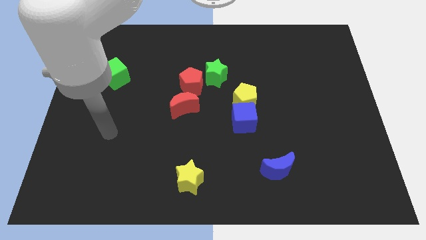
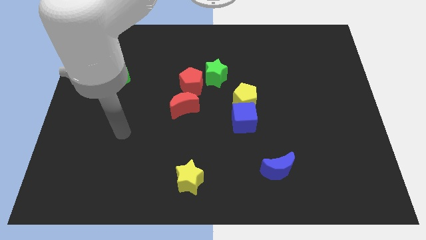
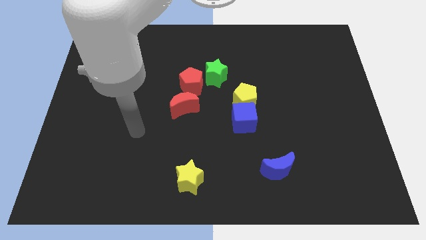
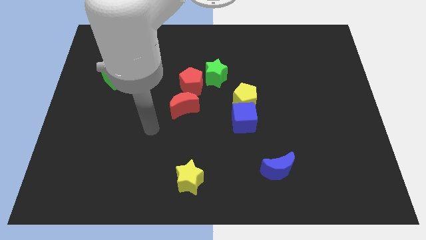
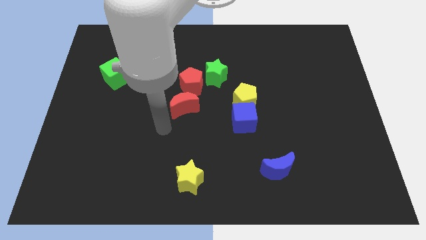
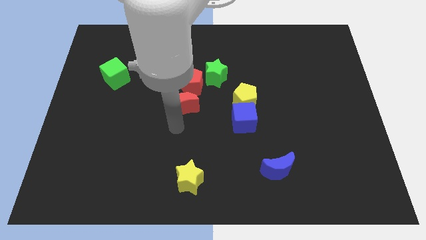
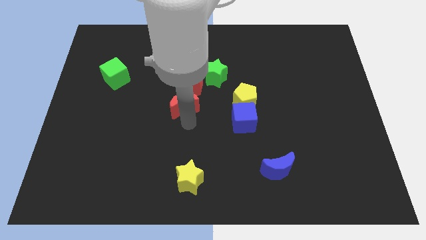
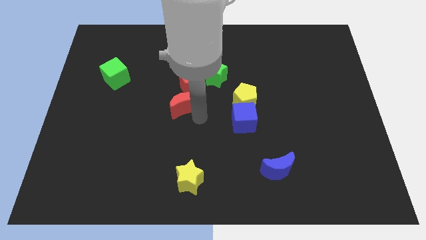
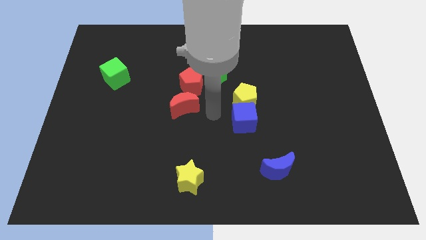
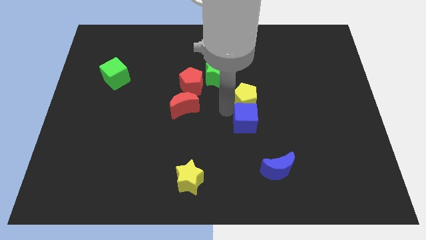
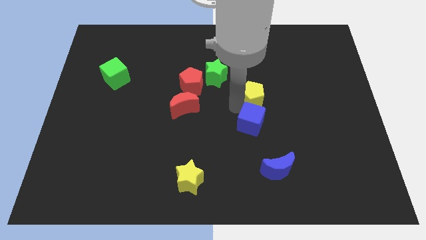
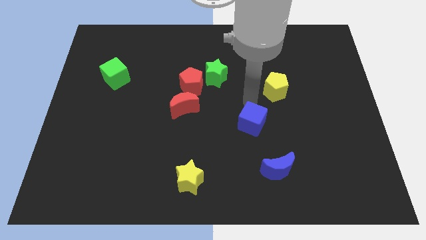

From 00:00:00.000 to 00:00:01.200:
move the blue cube away from the yellow pentagon

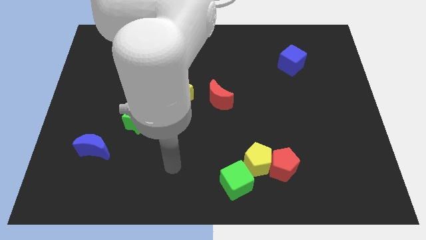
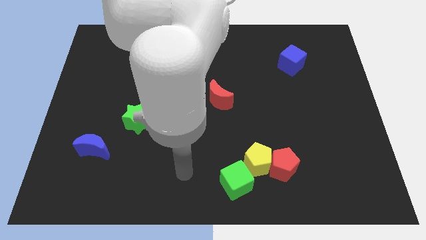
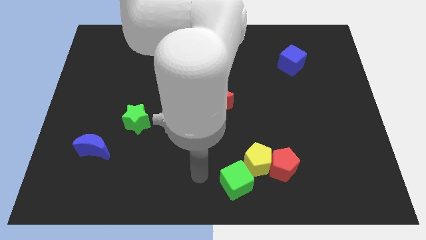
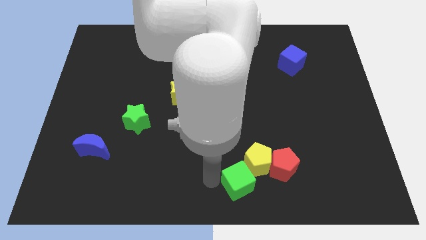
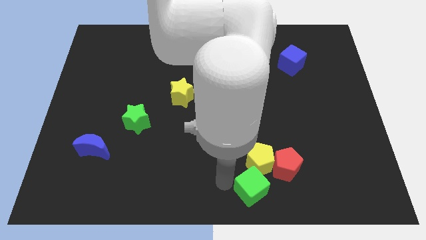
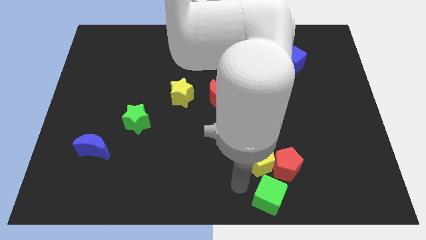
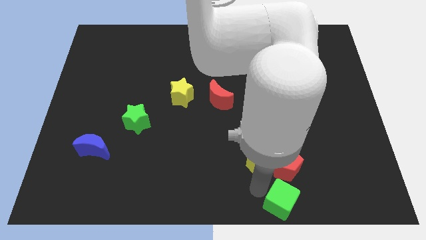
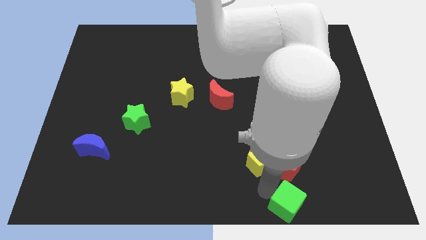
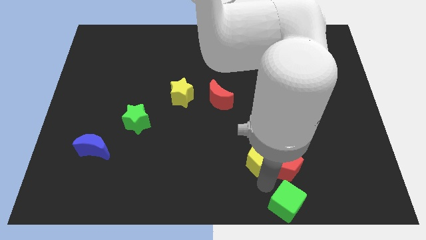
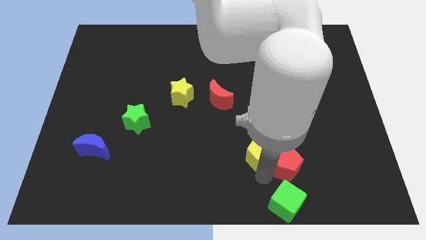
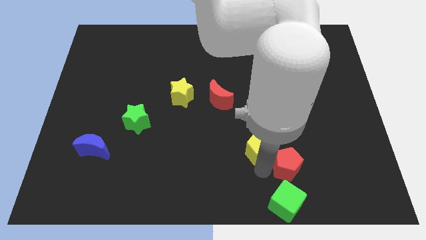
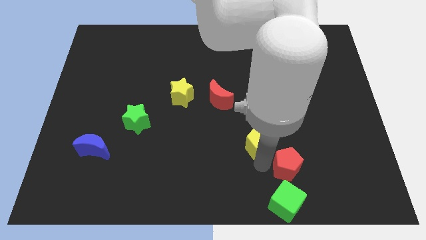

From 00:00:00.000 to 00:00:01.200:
separate the yellow pentagon from the red pentagon and green cube

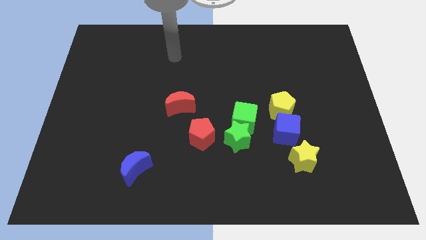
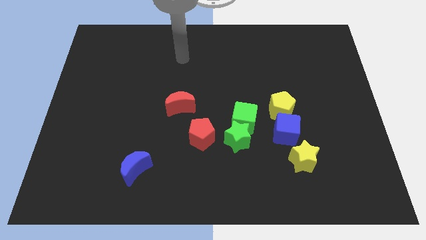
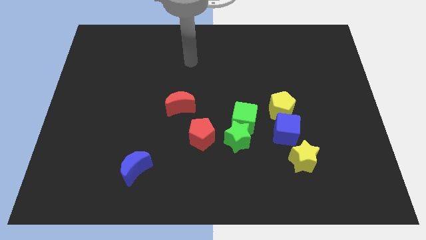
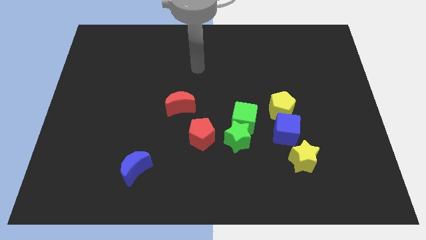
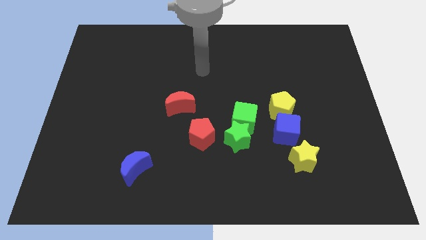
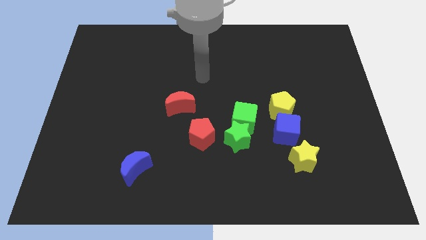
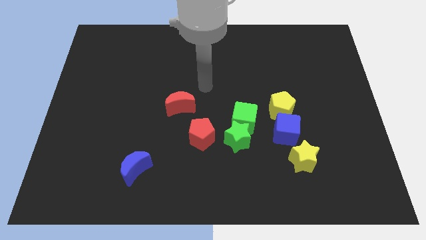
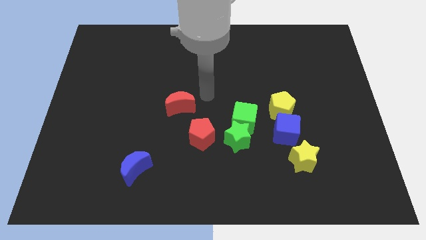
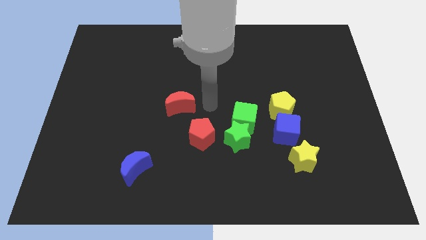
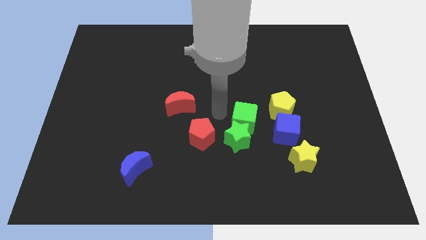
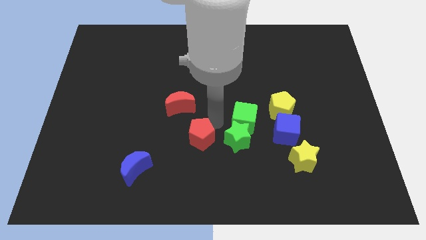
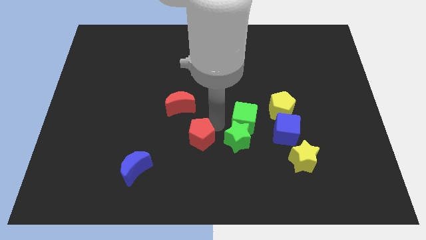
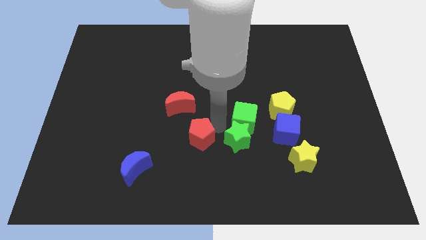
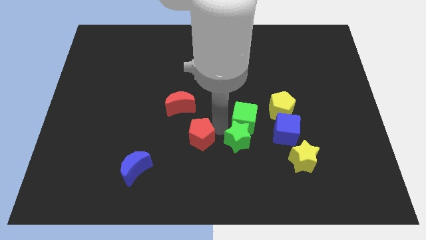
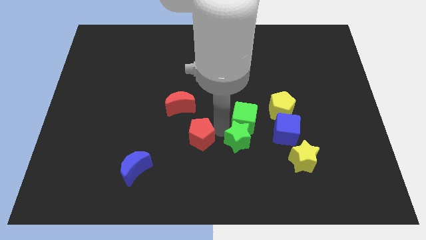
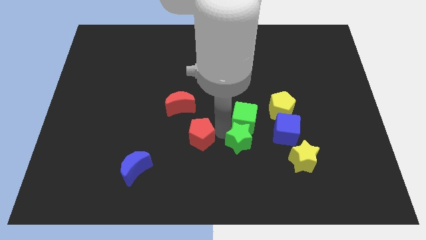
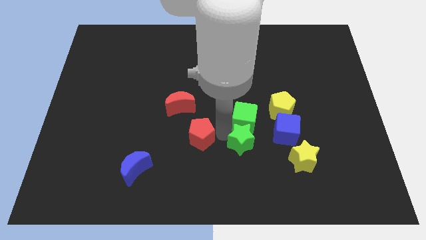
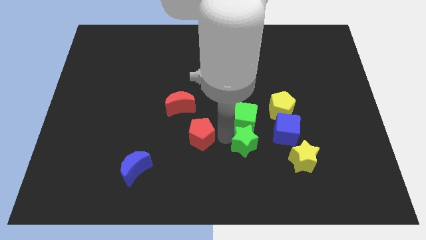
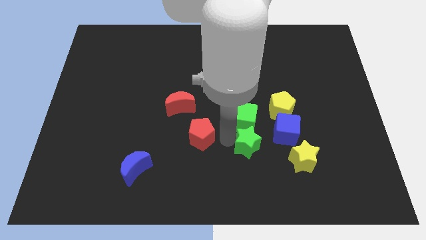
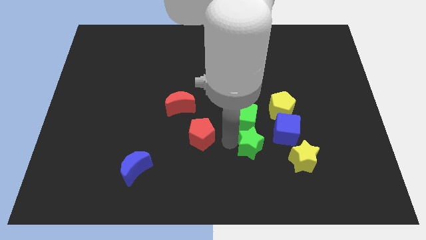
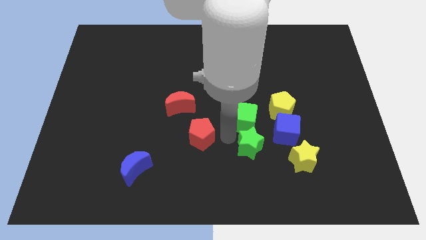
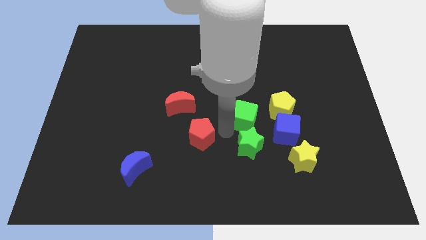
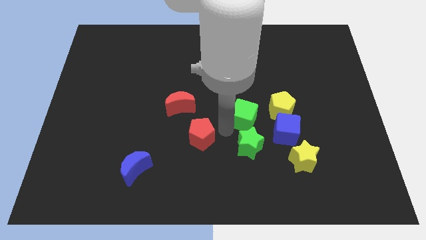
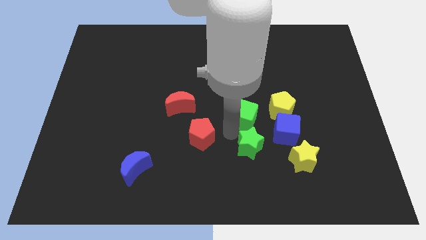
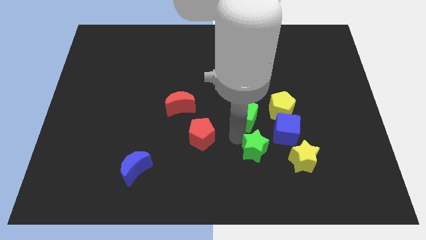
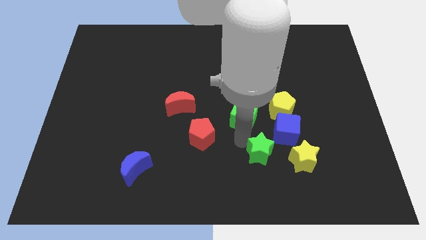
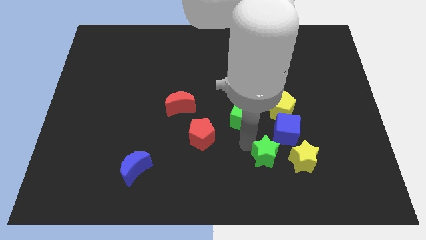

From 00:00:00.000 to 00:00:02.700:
pull the green star apart from the green cube and red pentagon

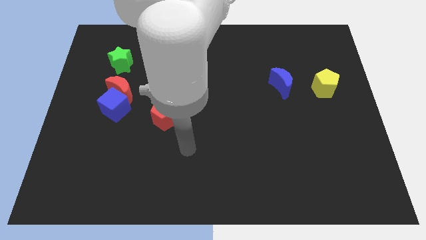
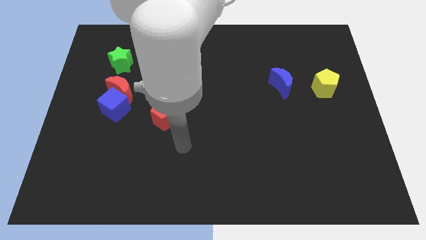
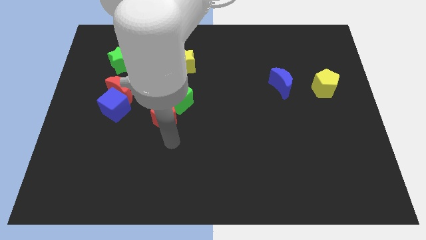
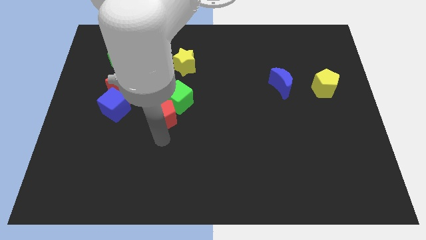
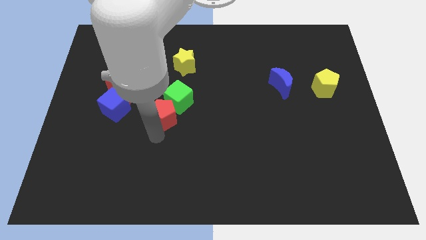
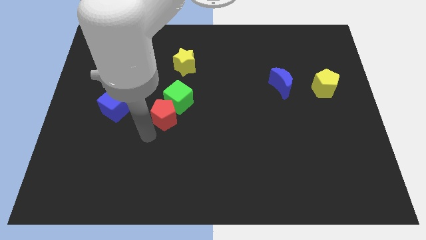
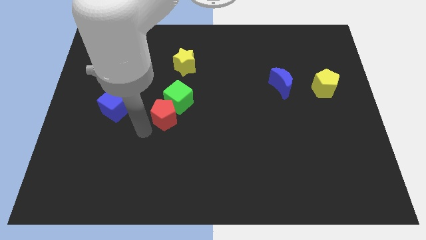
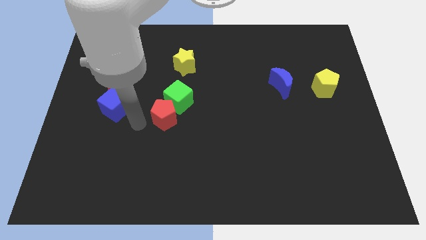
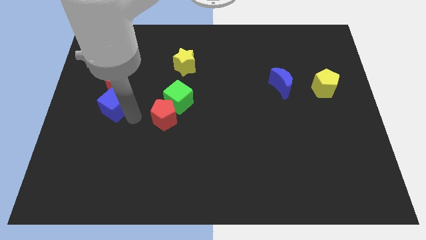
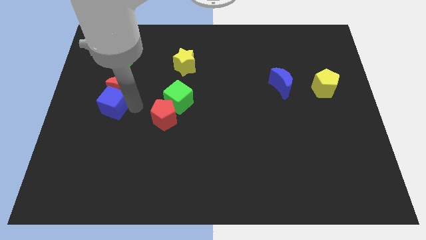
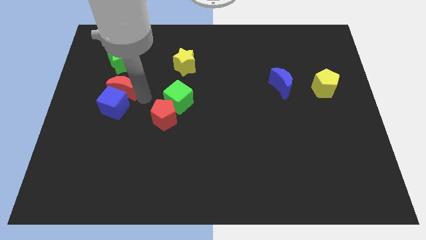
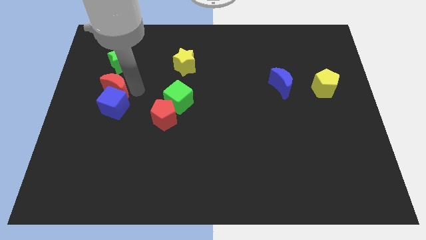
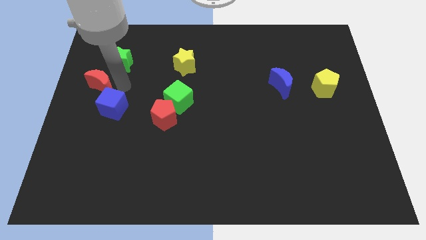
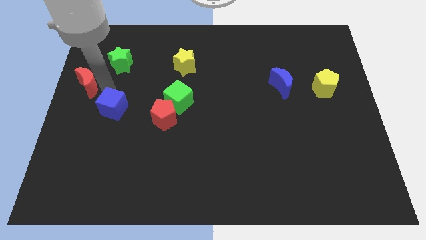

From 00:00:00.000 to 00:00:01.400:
move the blue cube away from the red moon

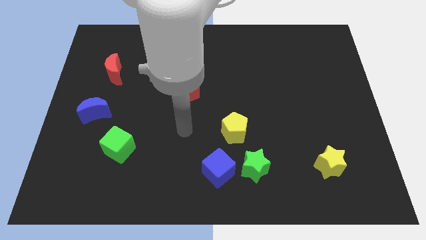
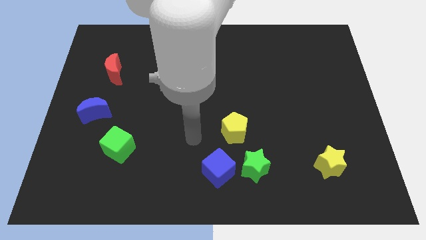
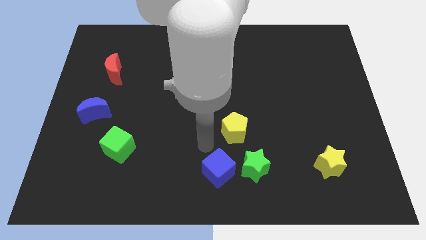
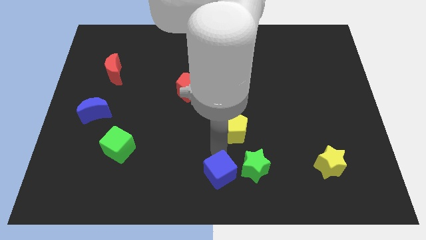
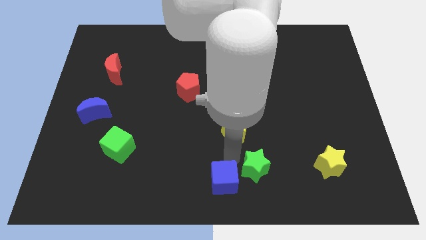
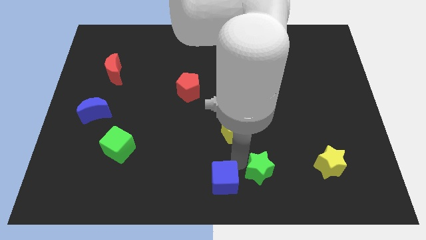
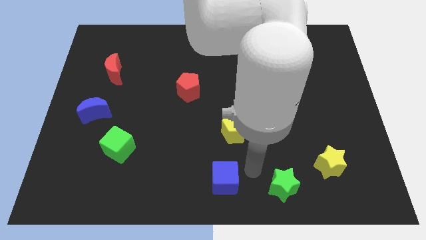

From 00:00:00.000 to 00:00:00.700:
pull the blue cube apart from the green star

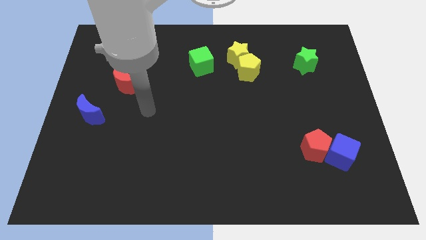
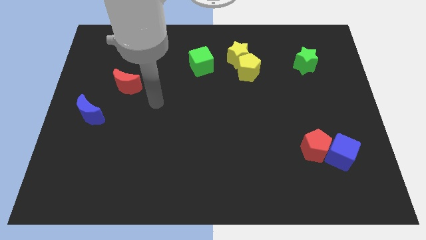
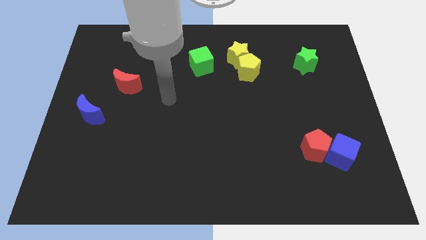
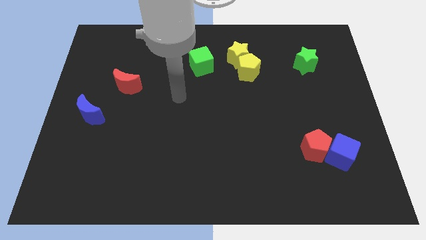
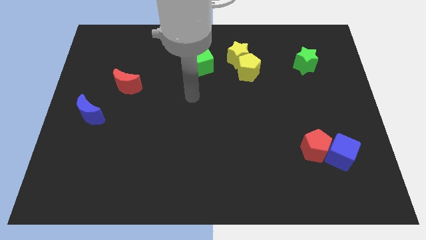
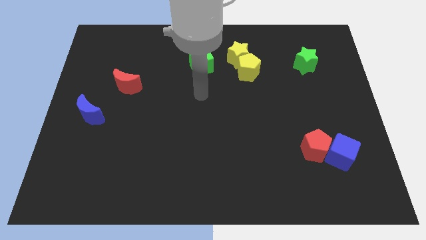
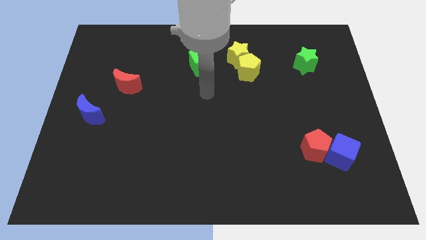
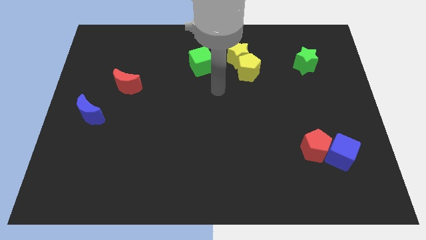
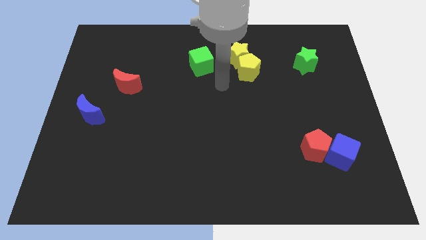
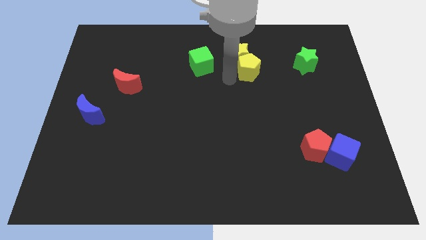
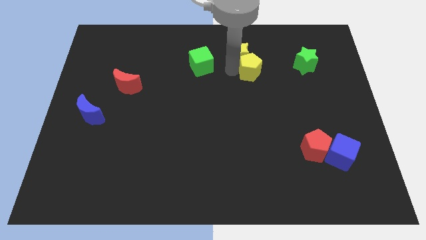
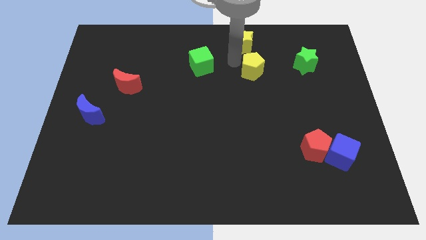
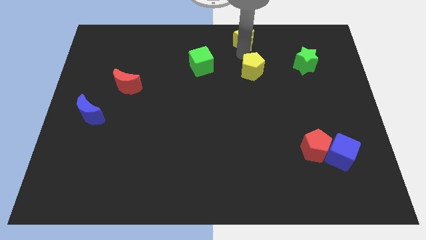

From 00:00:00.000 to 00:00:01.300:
move the yellow pentagon away from the yellow star

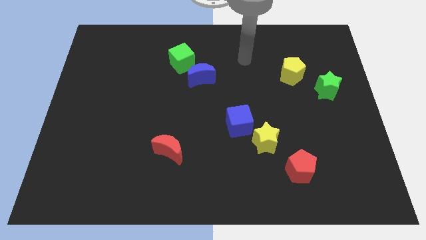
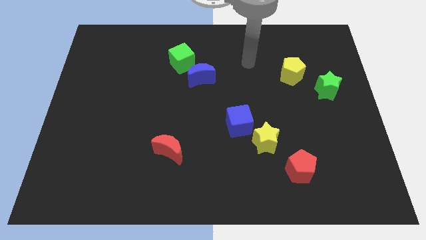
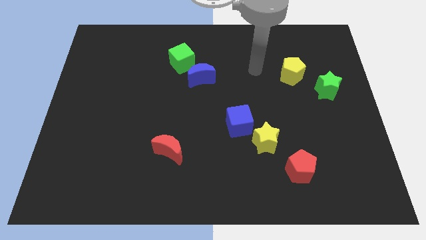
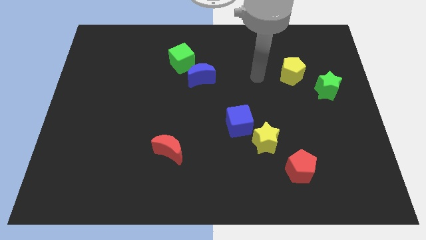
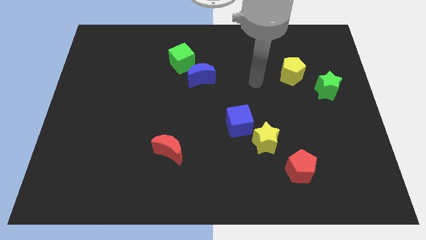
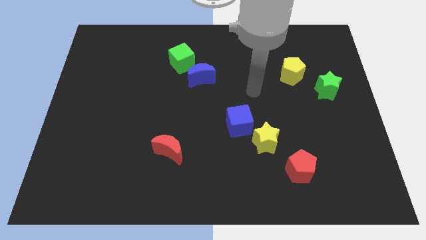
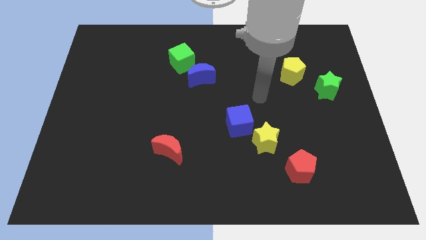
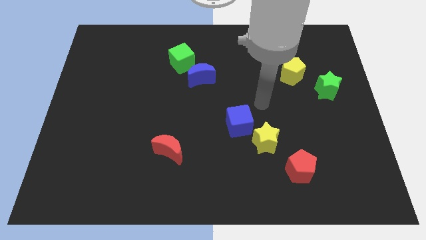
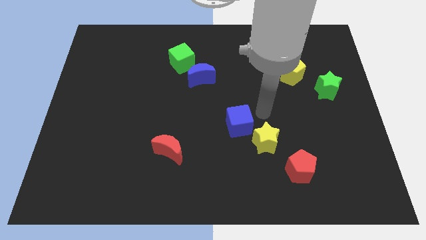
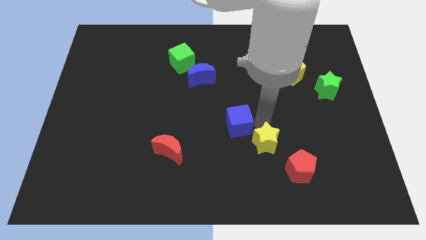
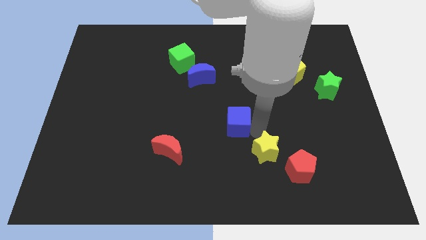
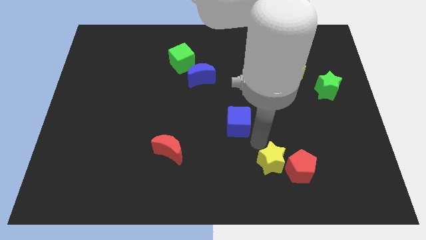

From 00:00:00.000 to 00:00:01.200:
pull the blue cube apart from the yellow star
